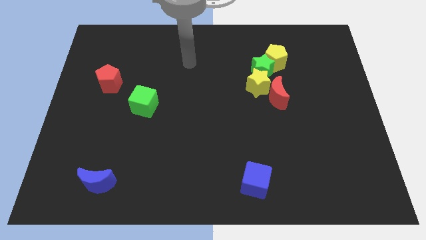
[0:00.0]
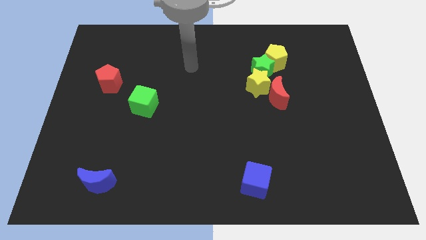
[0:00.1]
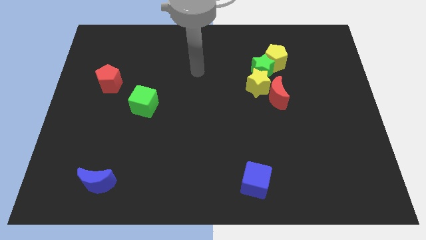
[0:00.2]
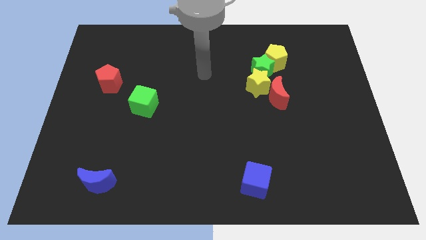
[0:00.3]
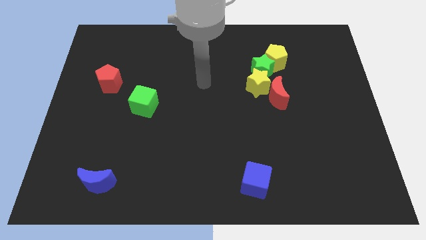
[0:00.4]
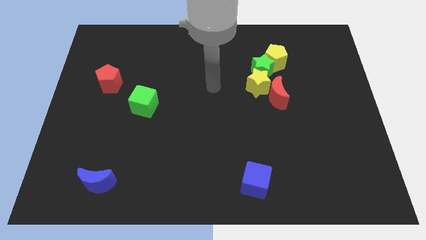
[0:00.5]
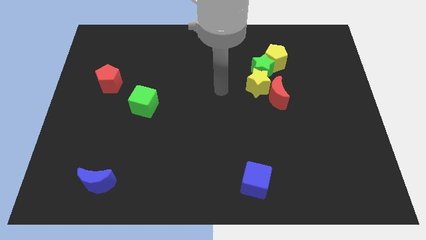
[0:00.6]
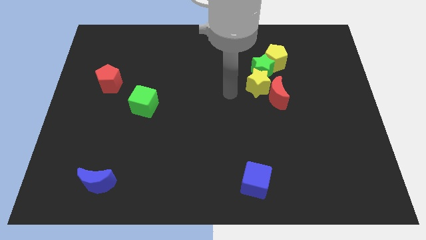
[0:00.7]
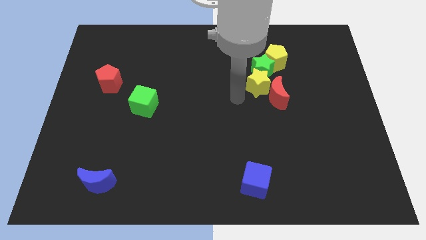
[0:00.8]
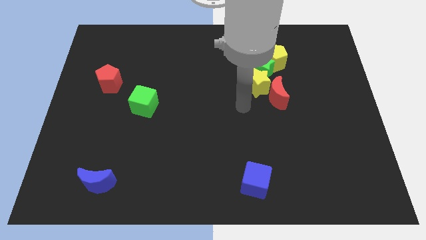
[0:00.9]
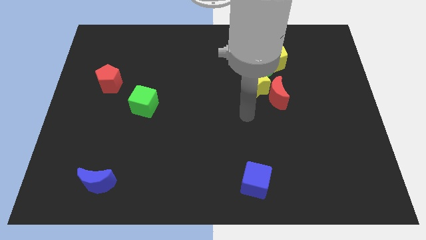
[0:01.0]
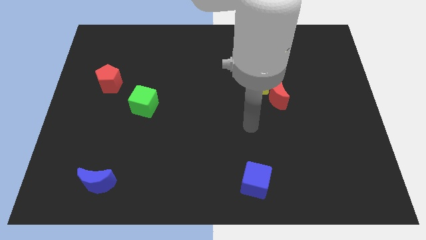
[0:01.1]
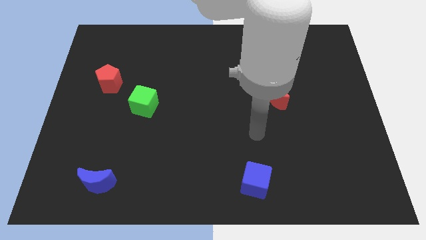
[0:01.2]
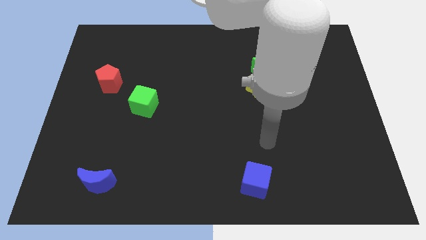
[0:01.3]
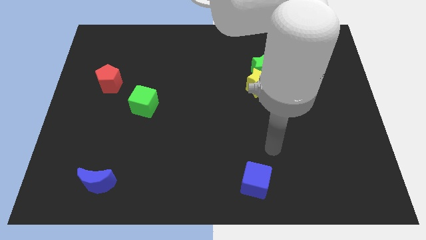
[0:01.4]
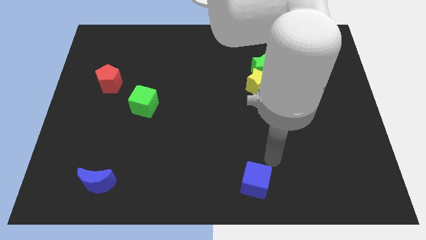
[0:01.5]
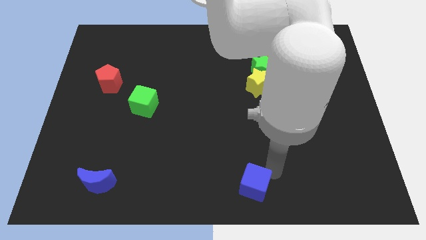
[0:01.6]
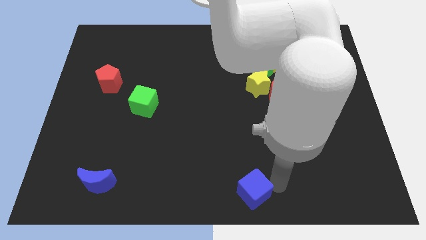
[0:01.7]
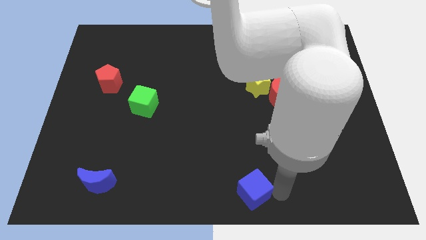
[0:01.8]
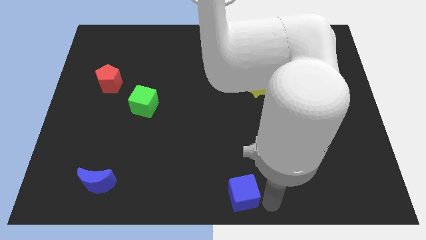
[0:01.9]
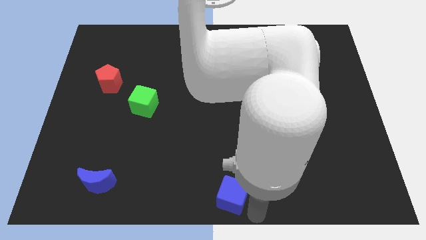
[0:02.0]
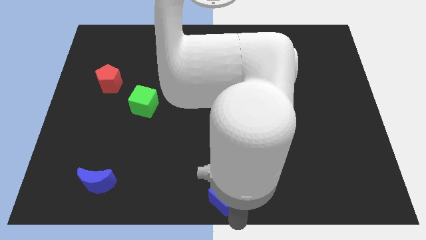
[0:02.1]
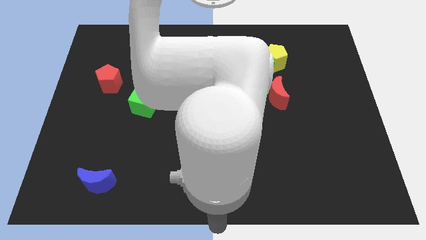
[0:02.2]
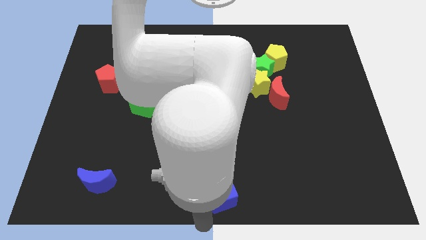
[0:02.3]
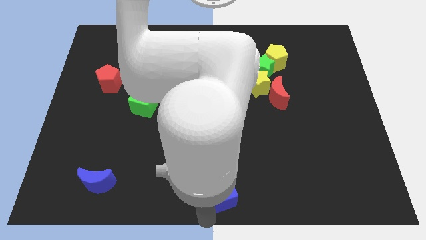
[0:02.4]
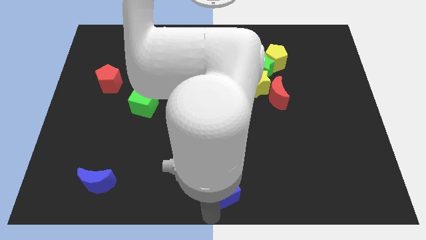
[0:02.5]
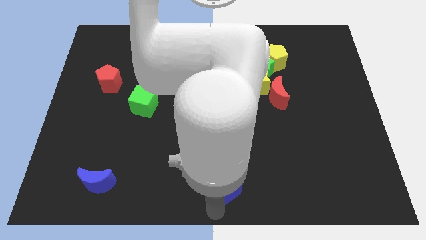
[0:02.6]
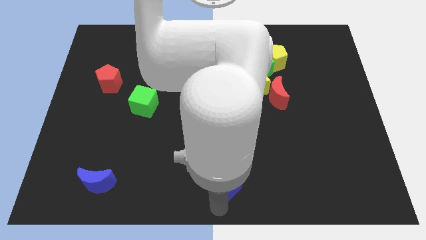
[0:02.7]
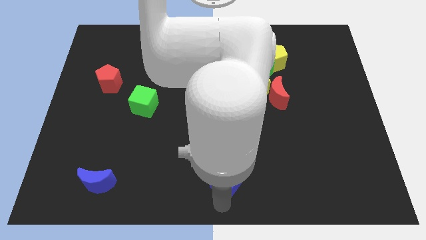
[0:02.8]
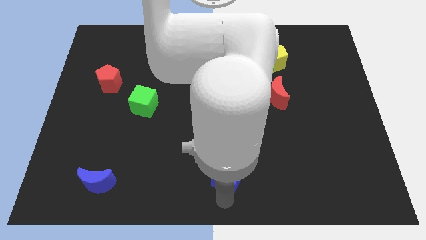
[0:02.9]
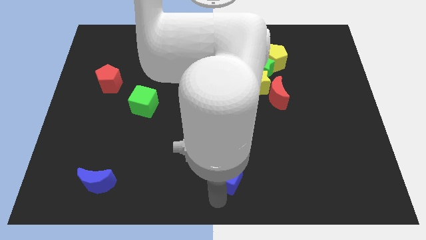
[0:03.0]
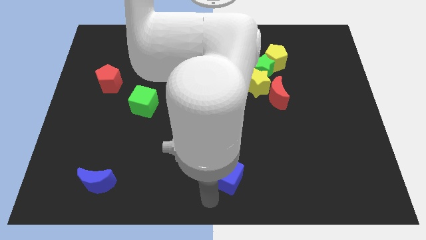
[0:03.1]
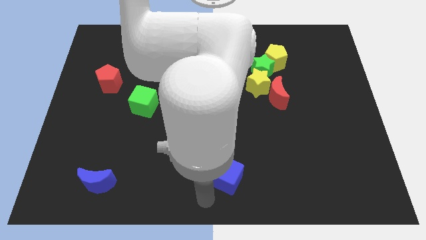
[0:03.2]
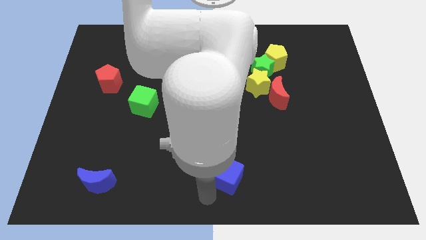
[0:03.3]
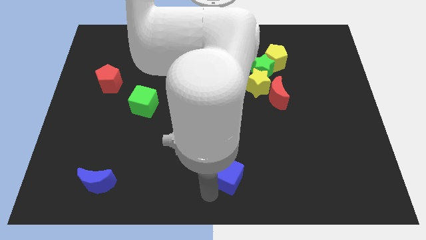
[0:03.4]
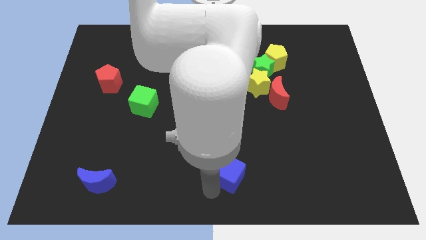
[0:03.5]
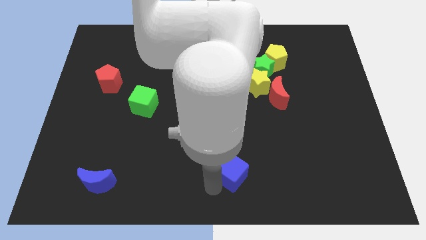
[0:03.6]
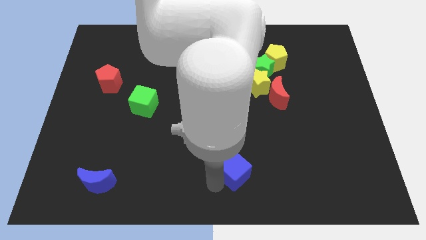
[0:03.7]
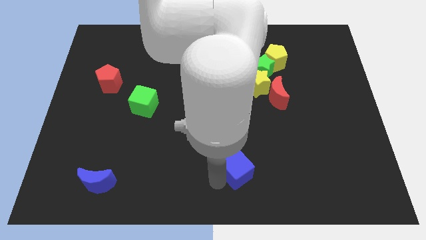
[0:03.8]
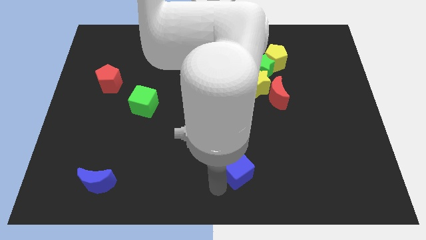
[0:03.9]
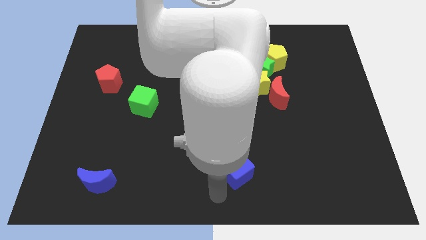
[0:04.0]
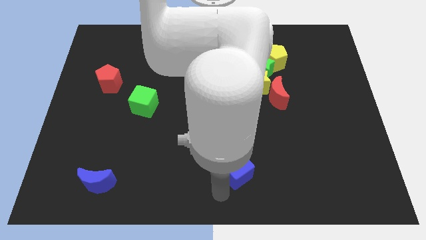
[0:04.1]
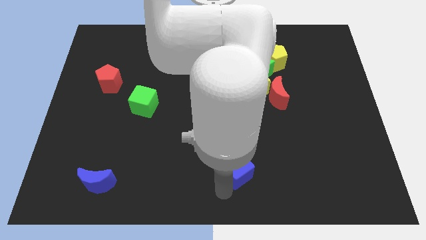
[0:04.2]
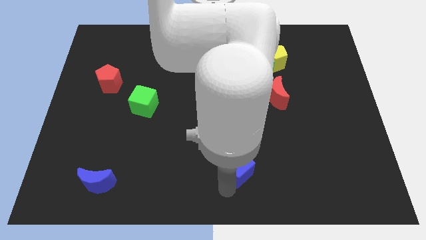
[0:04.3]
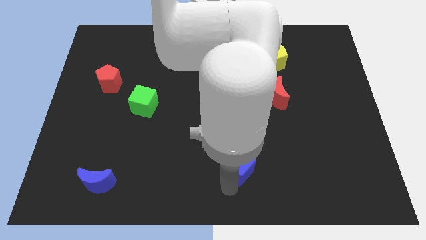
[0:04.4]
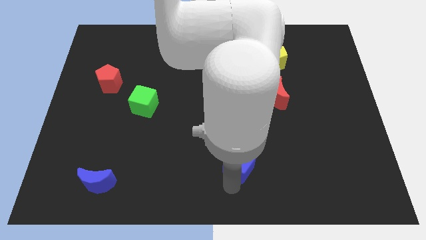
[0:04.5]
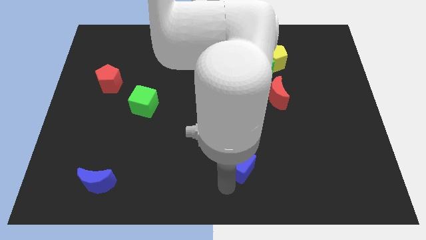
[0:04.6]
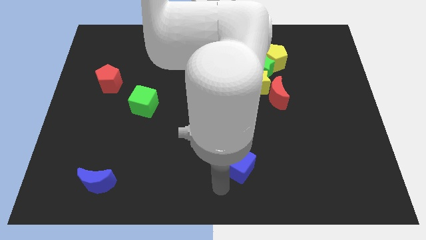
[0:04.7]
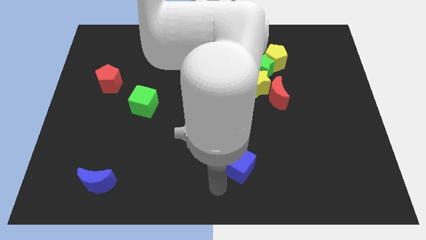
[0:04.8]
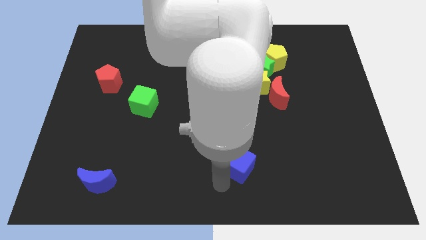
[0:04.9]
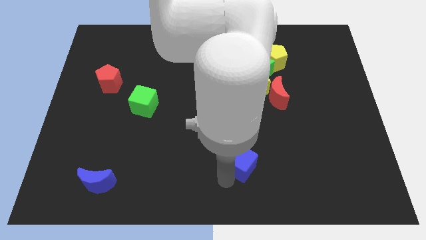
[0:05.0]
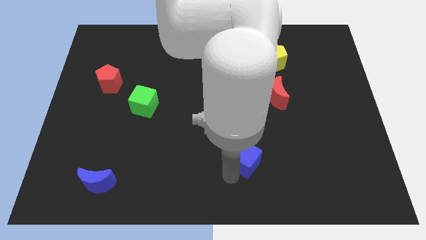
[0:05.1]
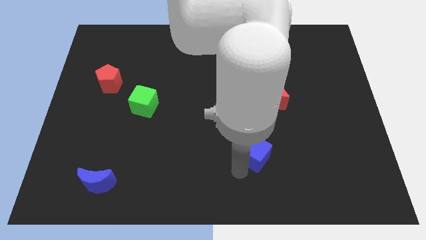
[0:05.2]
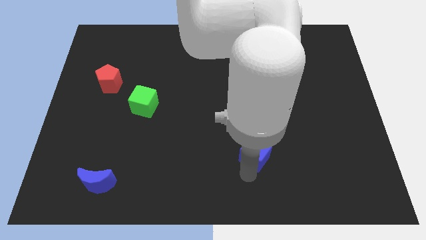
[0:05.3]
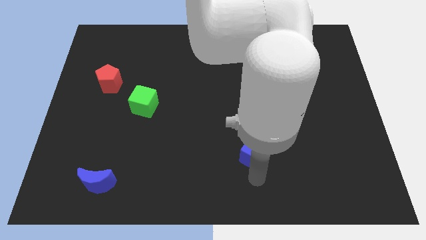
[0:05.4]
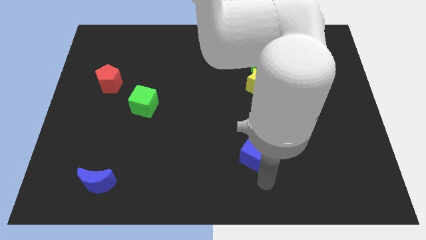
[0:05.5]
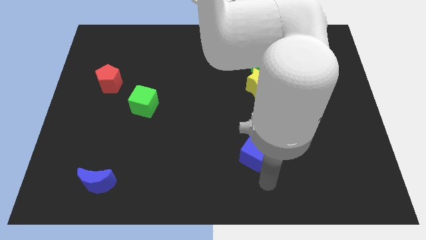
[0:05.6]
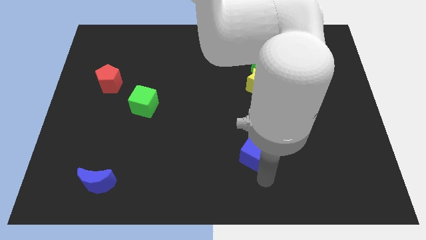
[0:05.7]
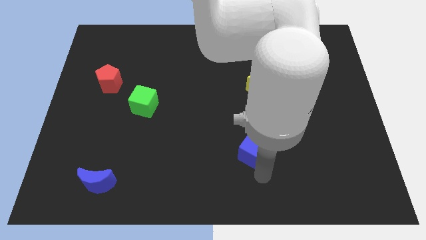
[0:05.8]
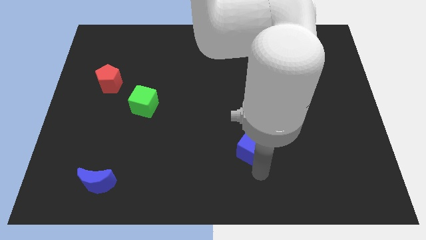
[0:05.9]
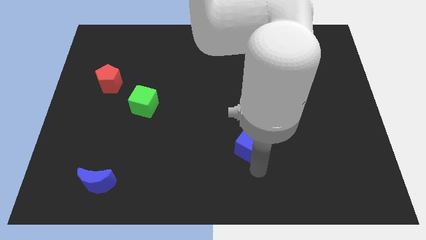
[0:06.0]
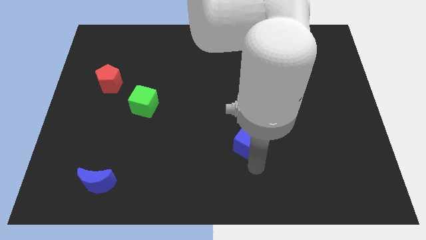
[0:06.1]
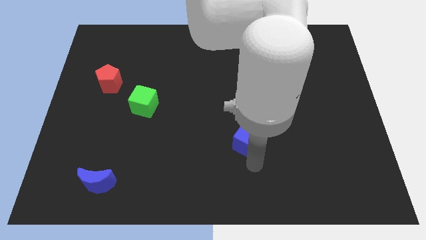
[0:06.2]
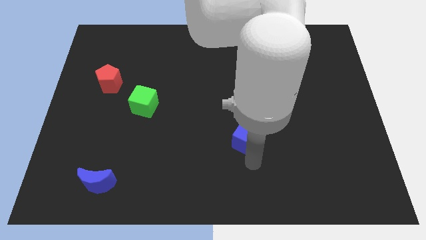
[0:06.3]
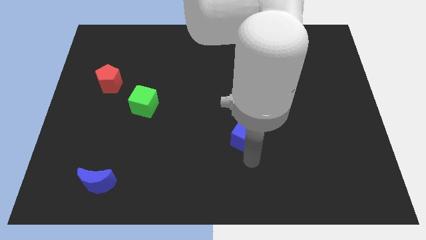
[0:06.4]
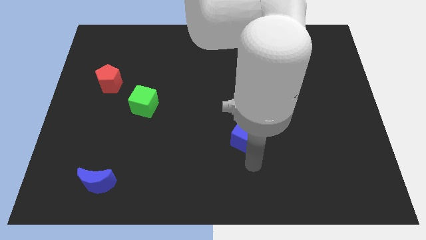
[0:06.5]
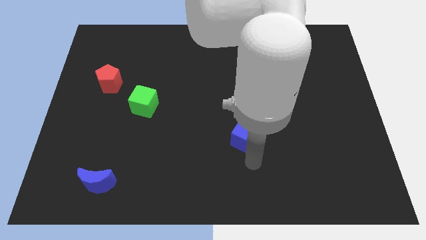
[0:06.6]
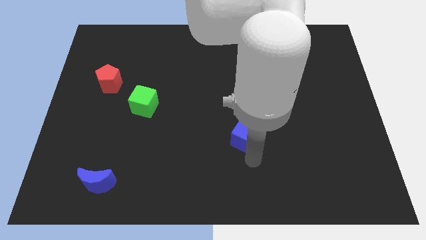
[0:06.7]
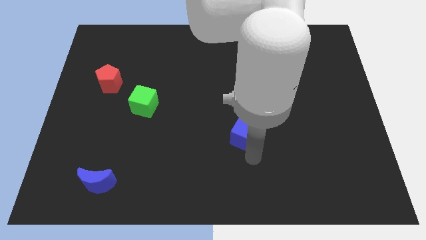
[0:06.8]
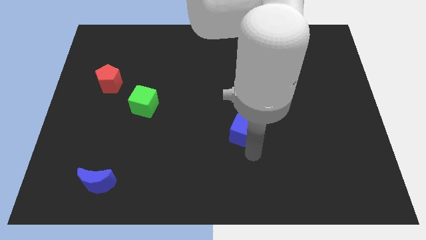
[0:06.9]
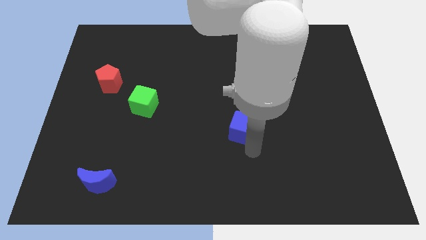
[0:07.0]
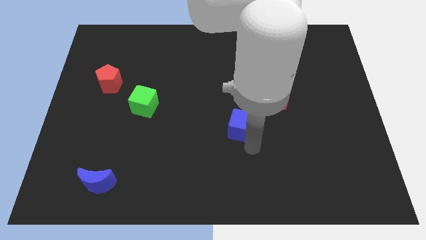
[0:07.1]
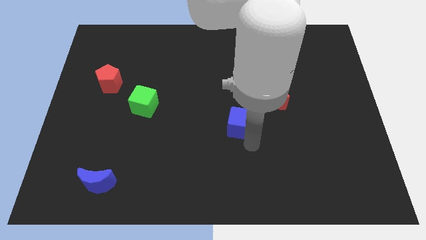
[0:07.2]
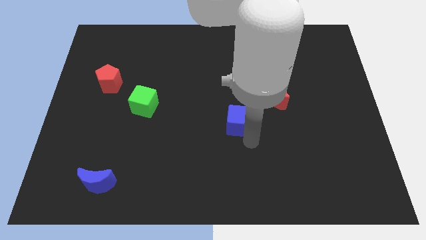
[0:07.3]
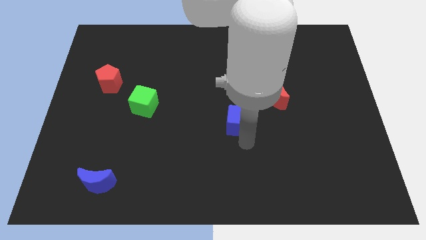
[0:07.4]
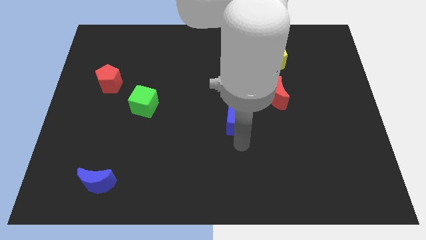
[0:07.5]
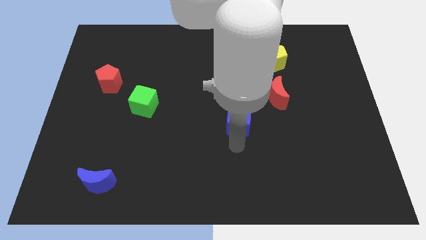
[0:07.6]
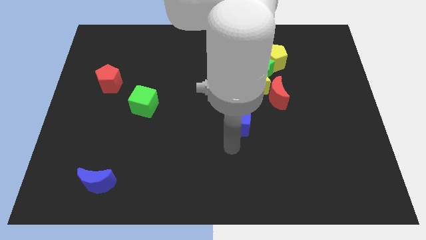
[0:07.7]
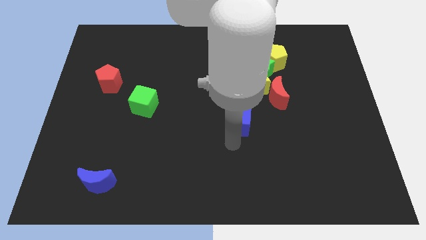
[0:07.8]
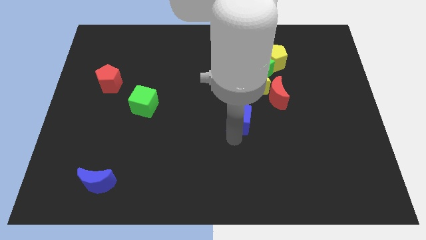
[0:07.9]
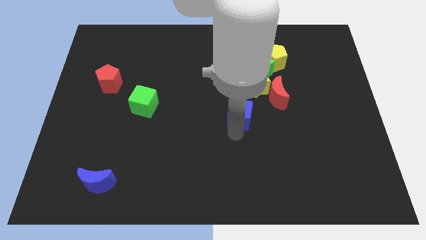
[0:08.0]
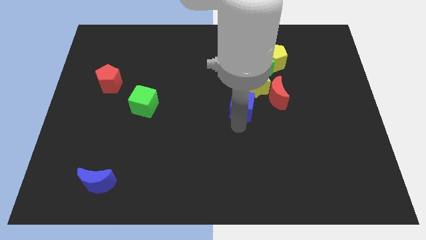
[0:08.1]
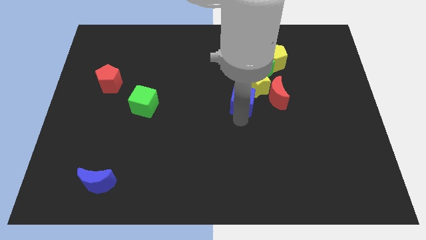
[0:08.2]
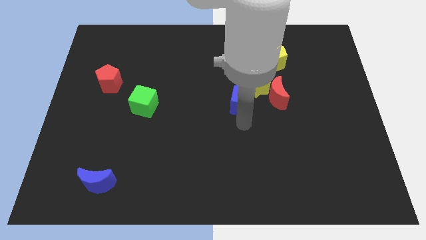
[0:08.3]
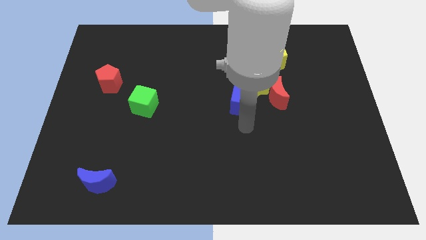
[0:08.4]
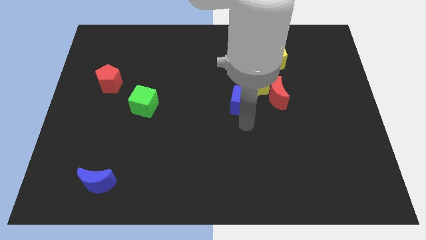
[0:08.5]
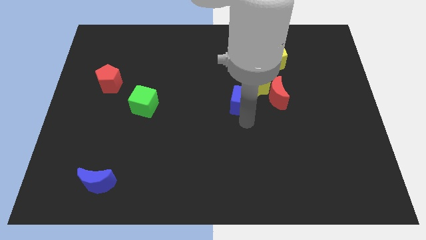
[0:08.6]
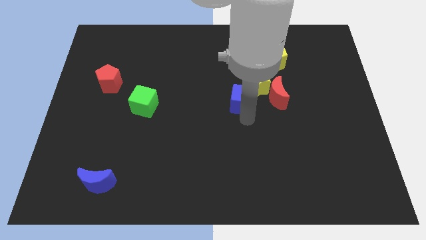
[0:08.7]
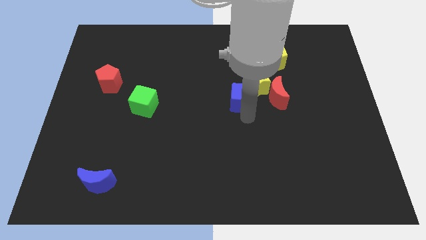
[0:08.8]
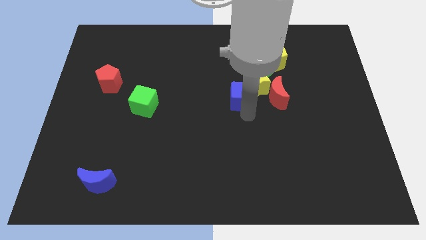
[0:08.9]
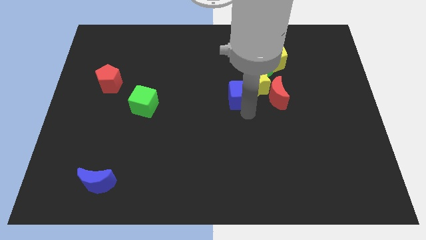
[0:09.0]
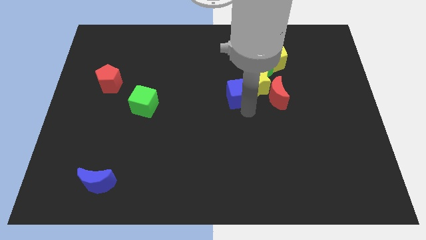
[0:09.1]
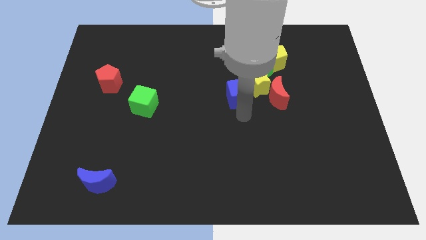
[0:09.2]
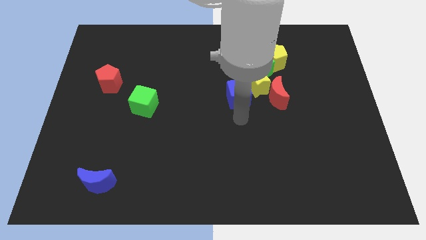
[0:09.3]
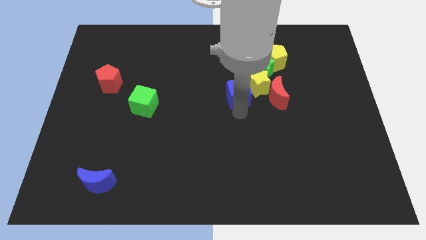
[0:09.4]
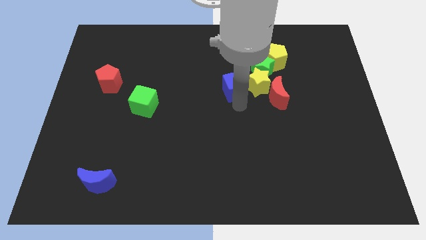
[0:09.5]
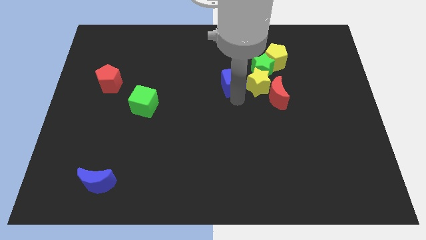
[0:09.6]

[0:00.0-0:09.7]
move the blue cube to the top left side of the yellow star
